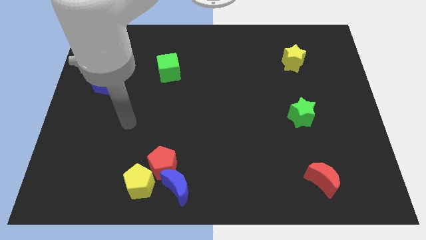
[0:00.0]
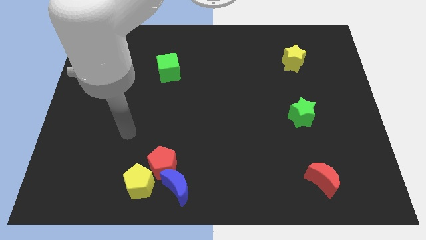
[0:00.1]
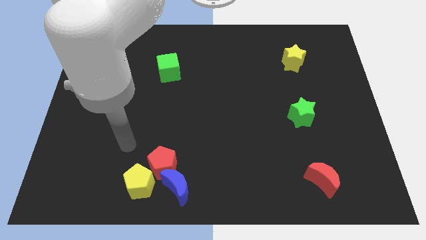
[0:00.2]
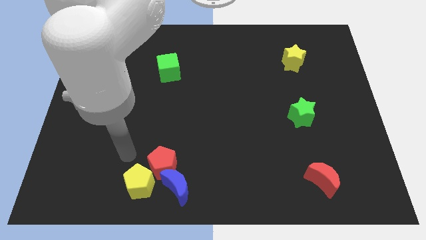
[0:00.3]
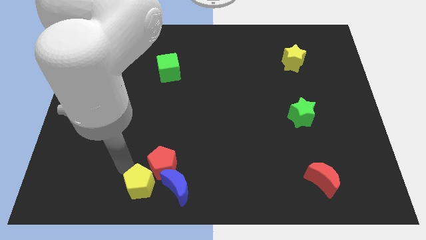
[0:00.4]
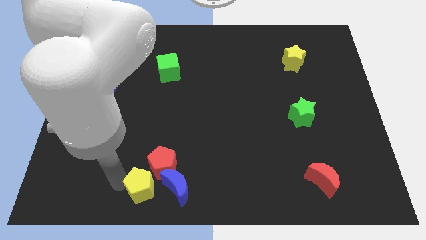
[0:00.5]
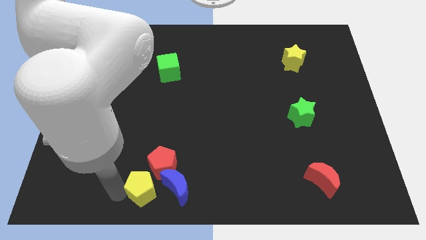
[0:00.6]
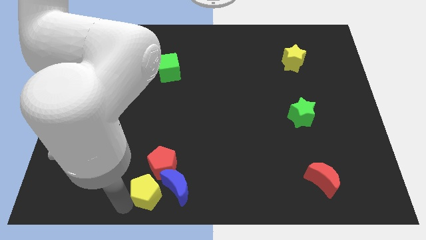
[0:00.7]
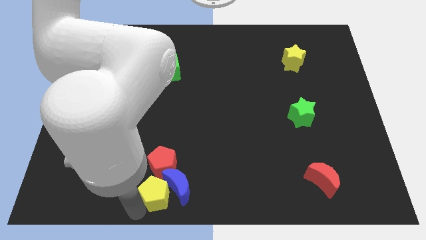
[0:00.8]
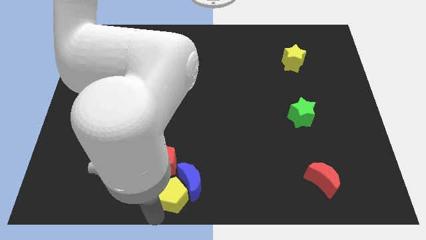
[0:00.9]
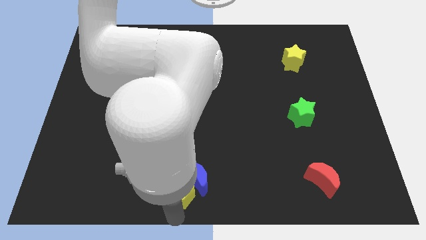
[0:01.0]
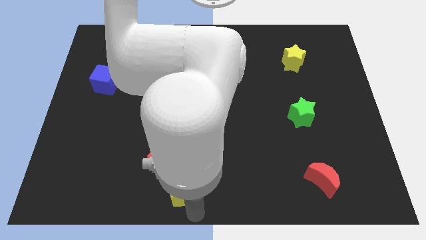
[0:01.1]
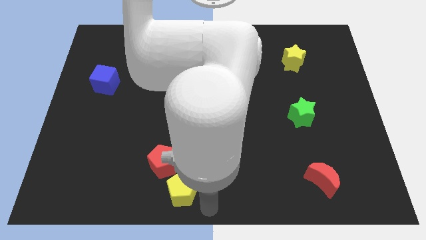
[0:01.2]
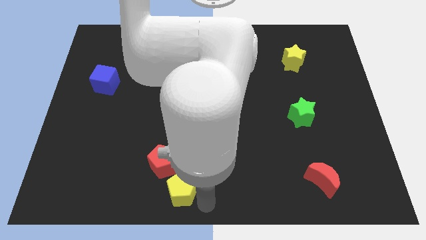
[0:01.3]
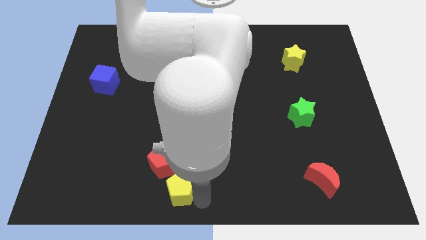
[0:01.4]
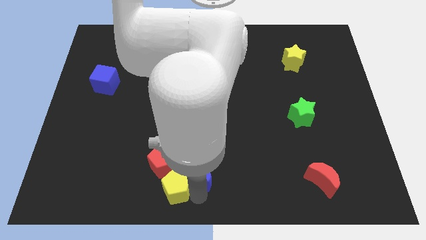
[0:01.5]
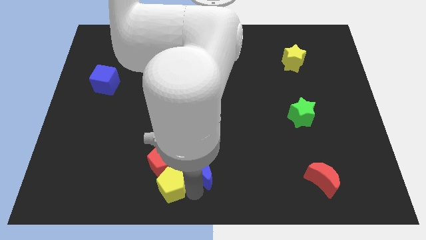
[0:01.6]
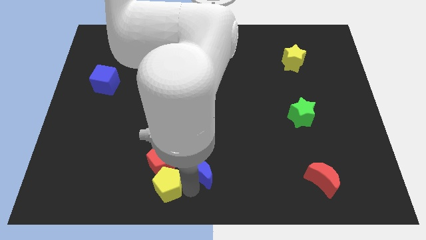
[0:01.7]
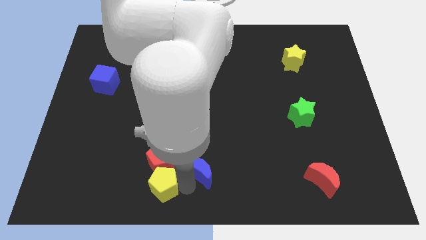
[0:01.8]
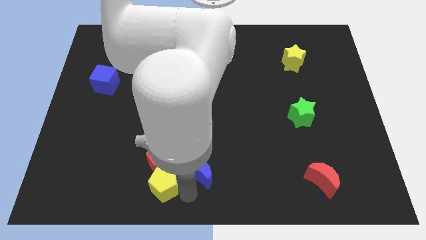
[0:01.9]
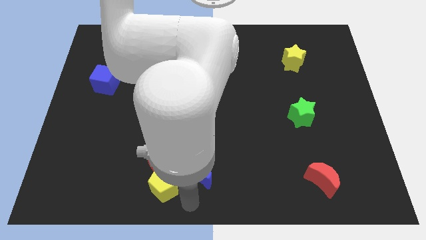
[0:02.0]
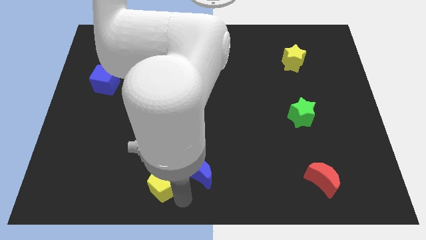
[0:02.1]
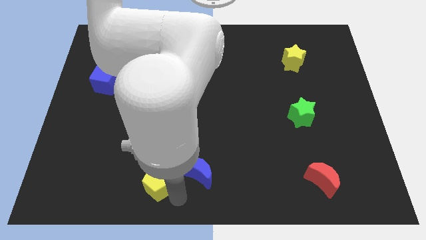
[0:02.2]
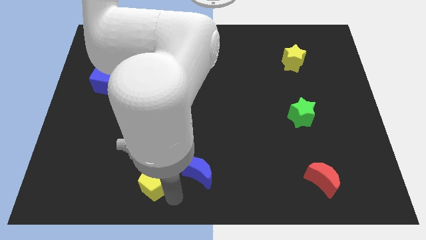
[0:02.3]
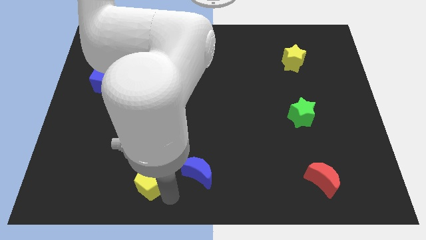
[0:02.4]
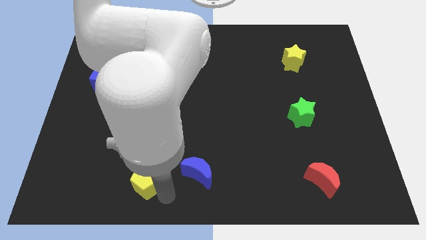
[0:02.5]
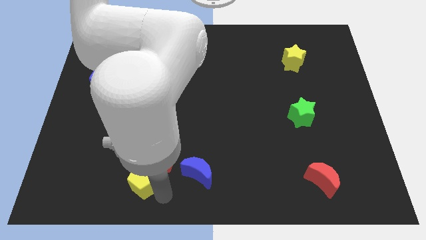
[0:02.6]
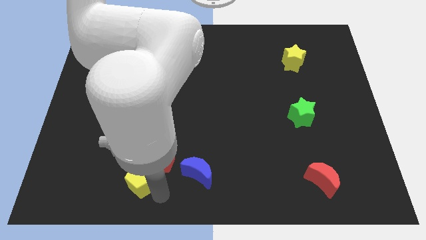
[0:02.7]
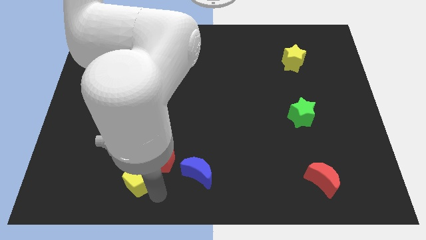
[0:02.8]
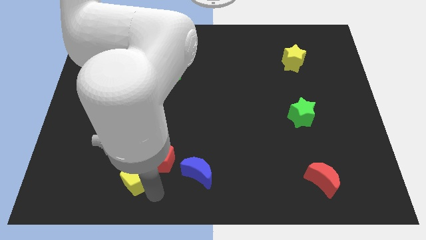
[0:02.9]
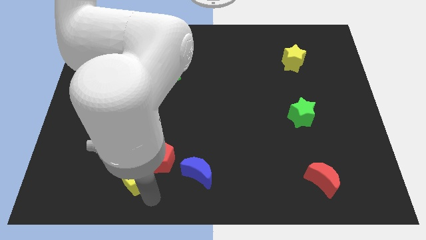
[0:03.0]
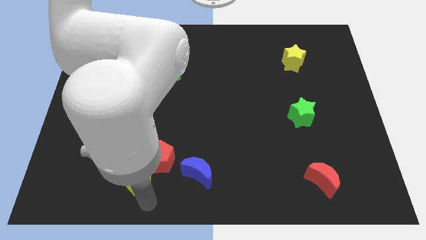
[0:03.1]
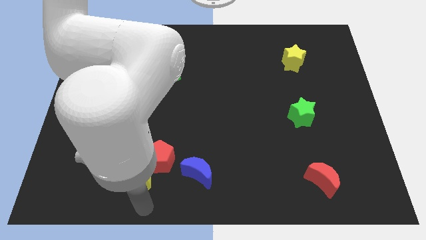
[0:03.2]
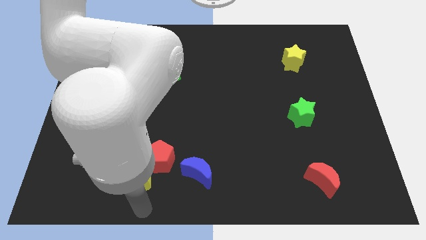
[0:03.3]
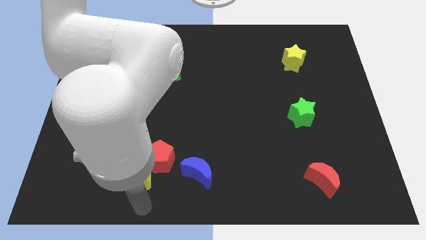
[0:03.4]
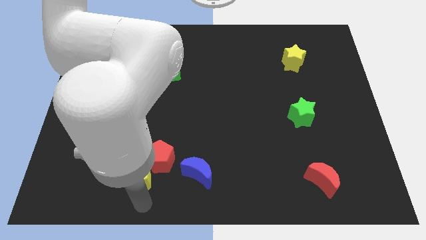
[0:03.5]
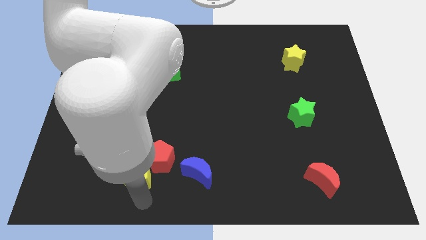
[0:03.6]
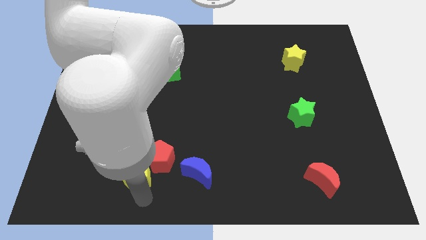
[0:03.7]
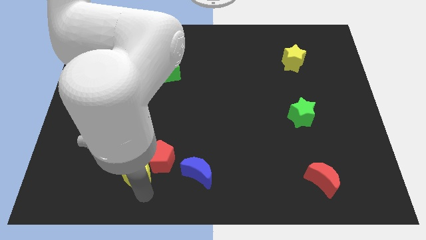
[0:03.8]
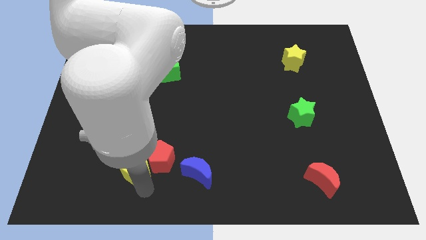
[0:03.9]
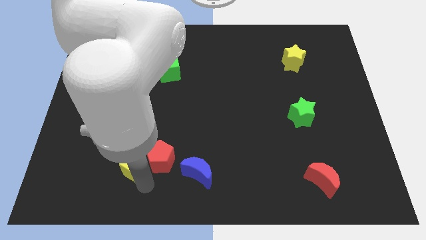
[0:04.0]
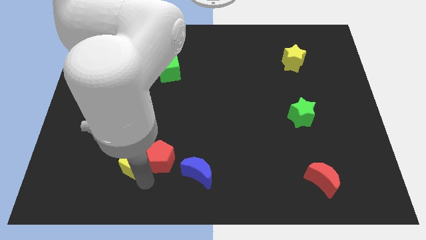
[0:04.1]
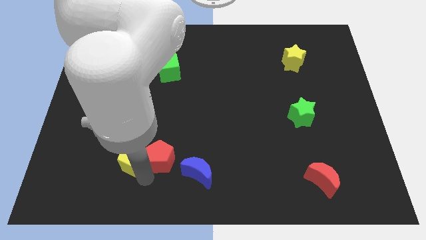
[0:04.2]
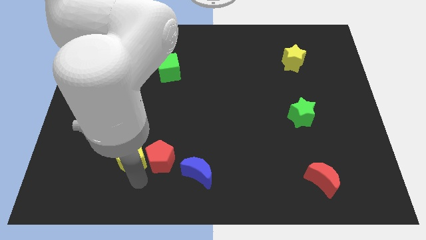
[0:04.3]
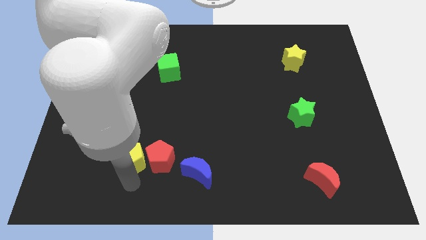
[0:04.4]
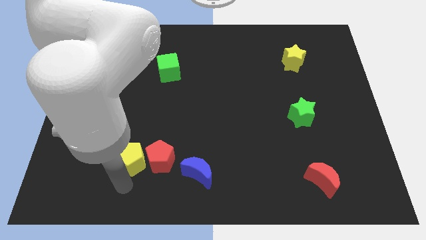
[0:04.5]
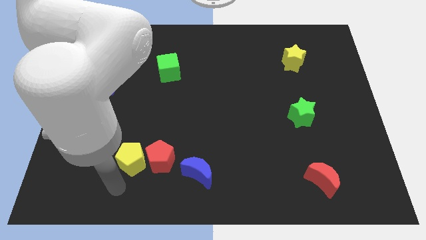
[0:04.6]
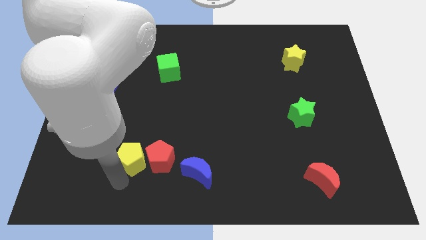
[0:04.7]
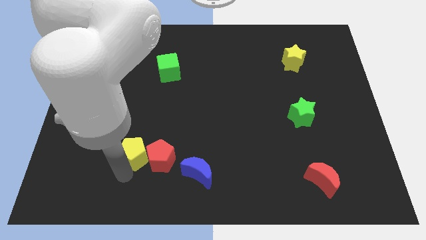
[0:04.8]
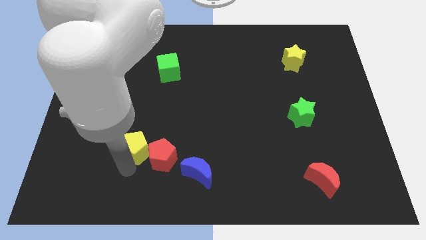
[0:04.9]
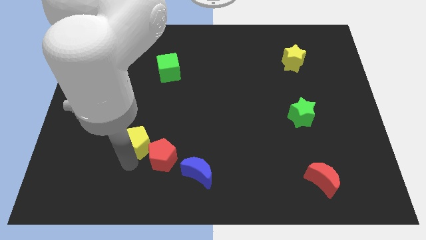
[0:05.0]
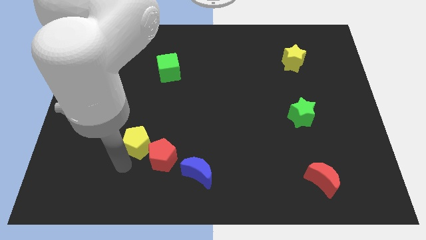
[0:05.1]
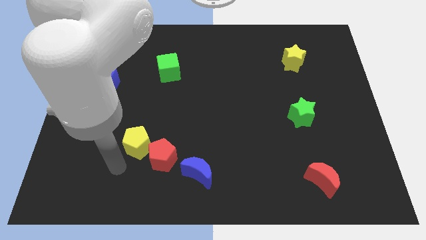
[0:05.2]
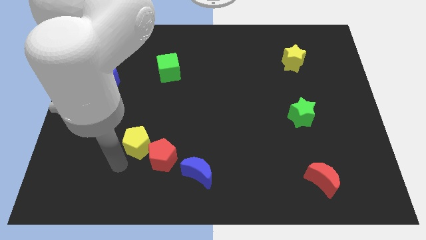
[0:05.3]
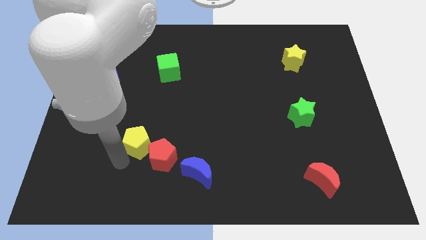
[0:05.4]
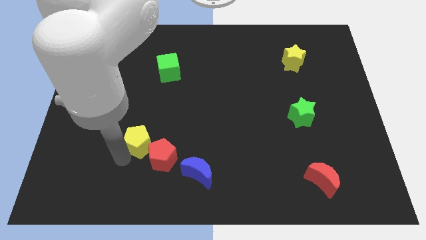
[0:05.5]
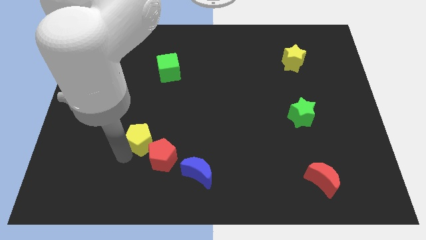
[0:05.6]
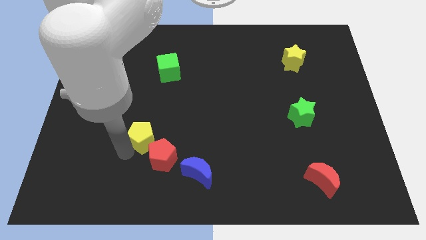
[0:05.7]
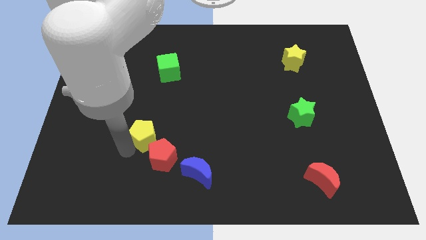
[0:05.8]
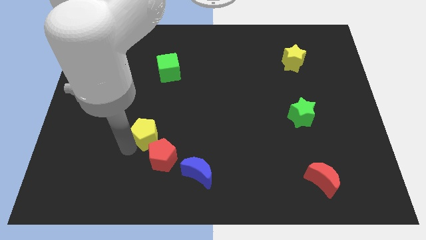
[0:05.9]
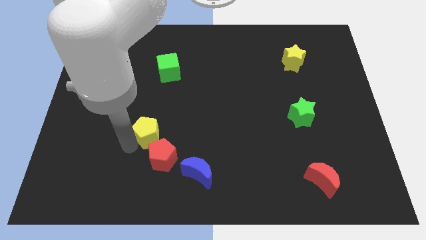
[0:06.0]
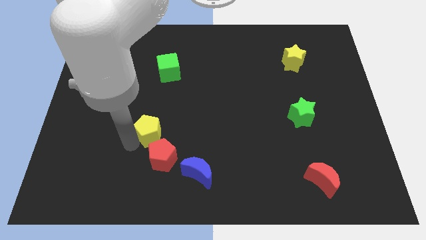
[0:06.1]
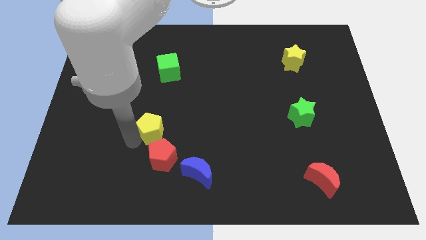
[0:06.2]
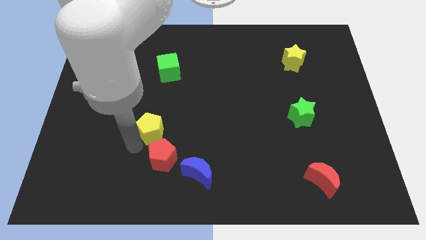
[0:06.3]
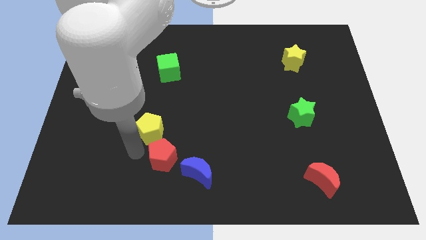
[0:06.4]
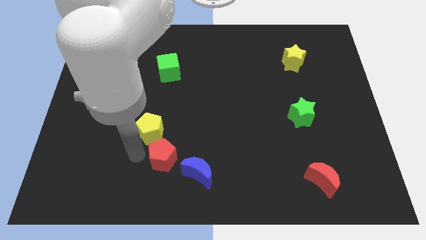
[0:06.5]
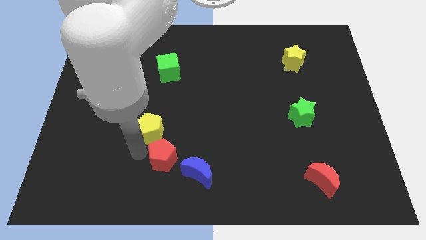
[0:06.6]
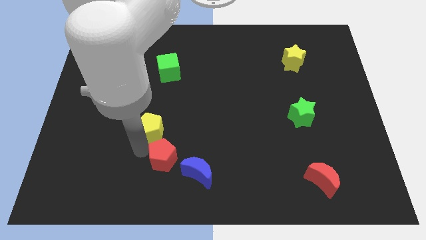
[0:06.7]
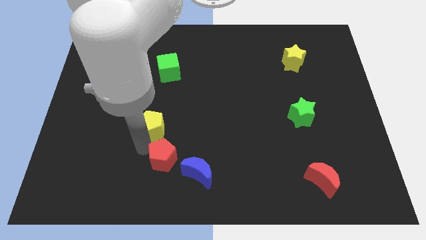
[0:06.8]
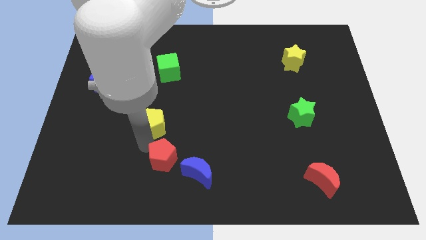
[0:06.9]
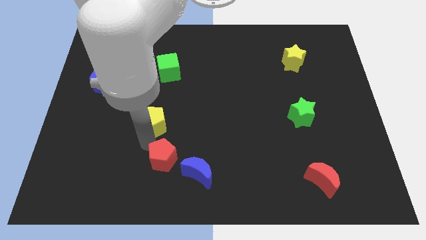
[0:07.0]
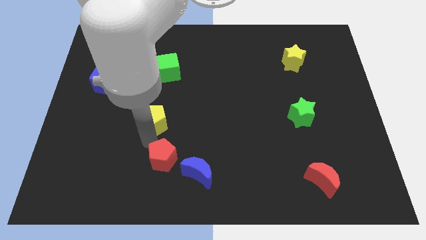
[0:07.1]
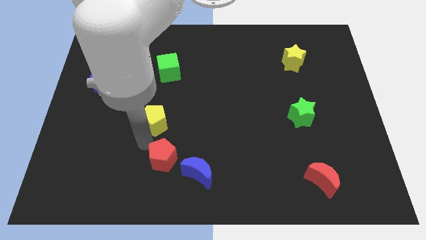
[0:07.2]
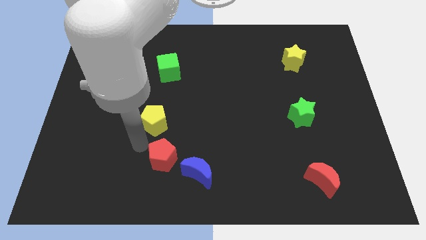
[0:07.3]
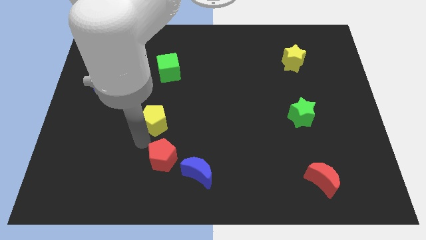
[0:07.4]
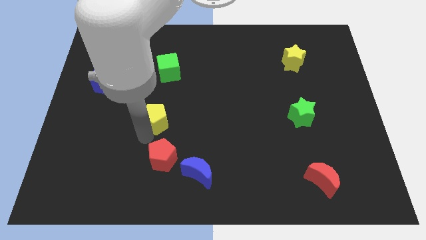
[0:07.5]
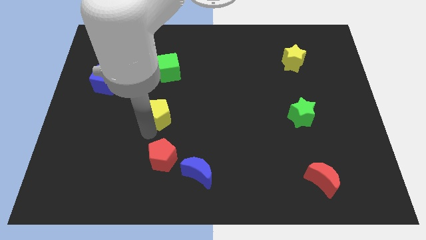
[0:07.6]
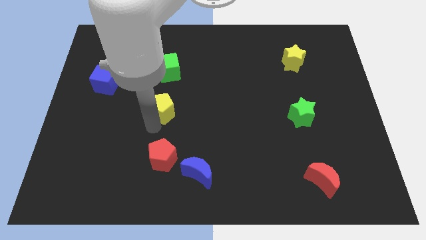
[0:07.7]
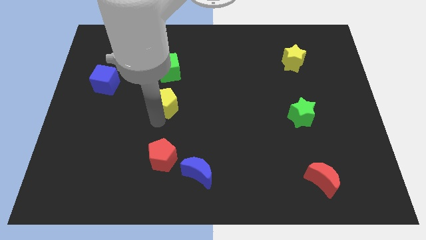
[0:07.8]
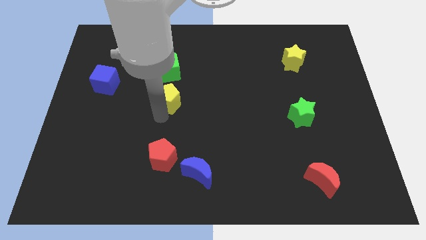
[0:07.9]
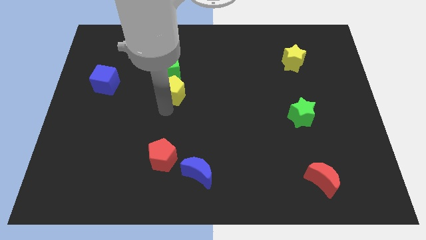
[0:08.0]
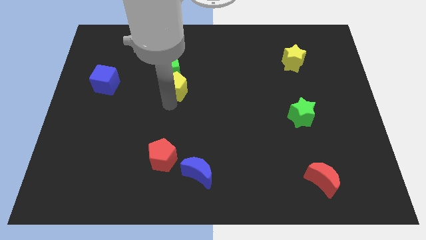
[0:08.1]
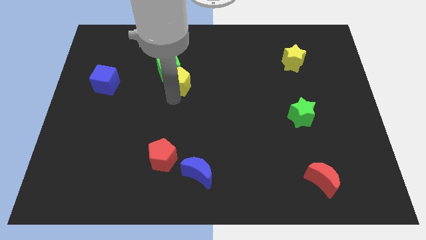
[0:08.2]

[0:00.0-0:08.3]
push the yellow pentagon next to the green cube
